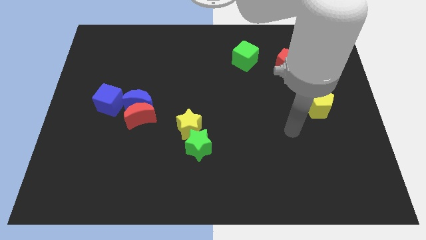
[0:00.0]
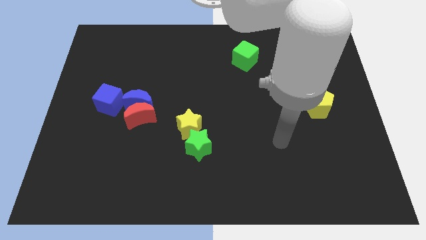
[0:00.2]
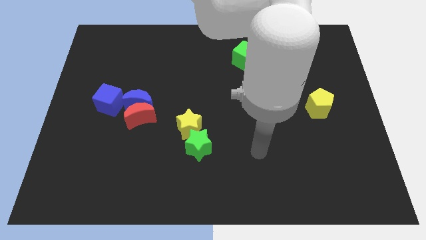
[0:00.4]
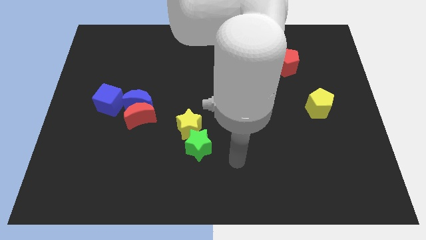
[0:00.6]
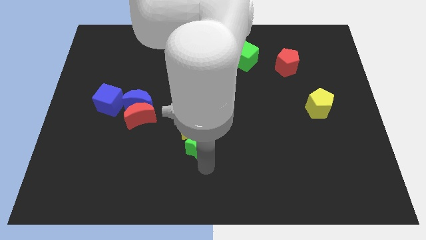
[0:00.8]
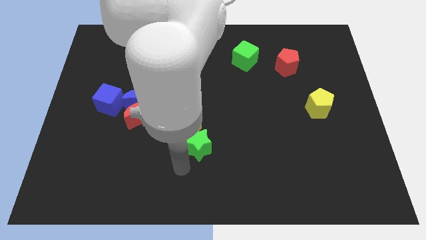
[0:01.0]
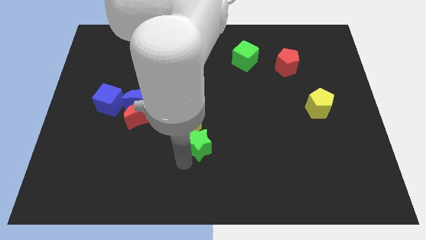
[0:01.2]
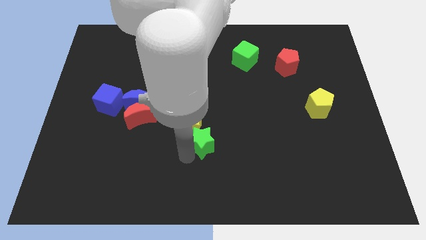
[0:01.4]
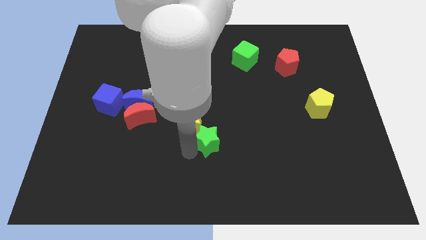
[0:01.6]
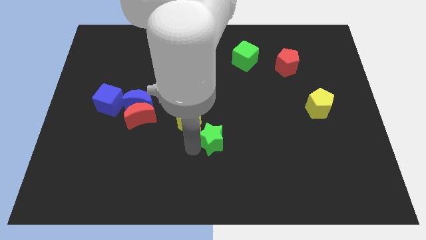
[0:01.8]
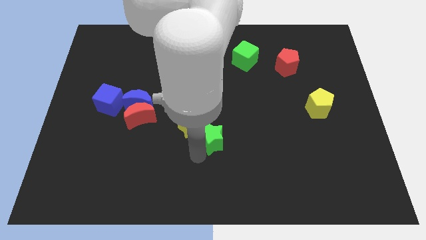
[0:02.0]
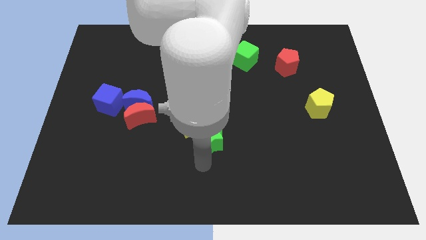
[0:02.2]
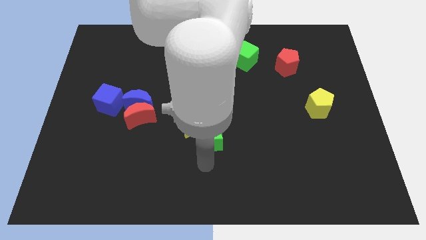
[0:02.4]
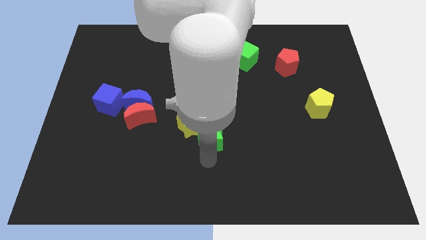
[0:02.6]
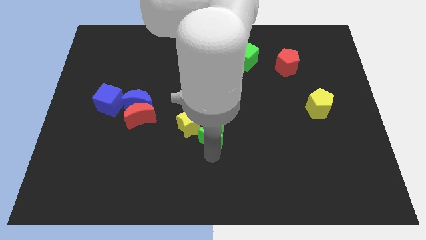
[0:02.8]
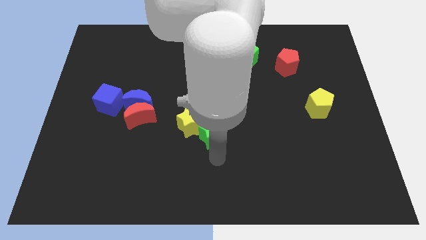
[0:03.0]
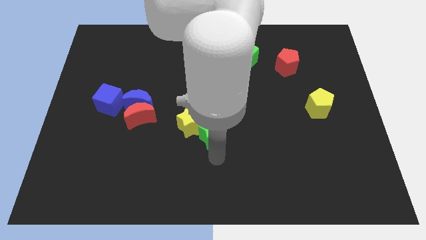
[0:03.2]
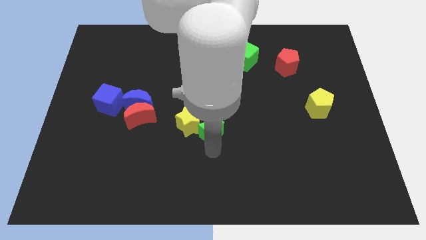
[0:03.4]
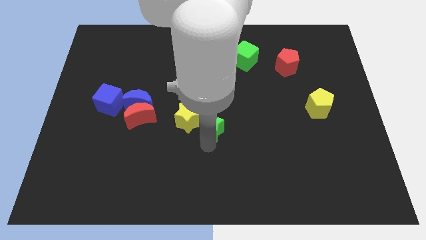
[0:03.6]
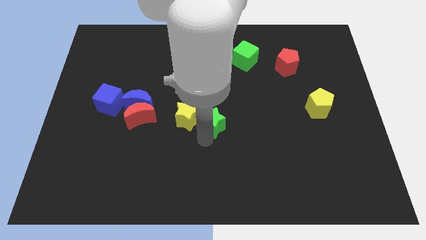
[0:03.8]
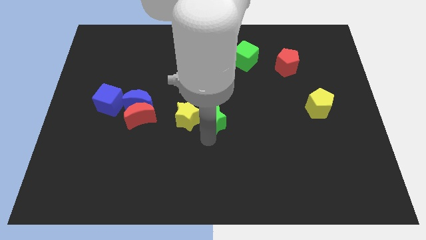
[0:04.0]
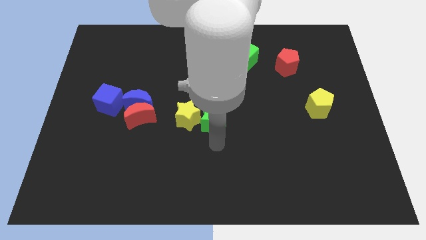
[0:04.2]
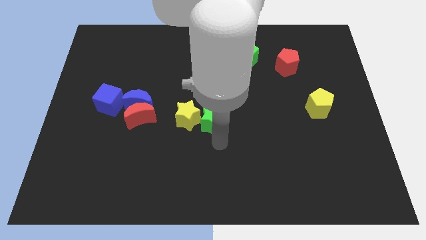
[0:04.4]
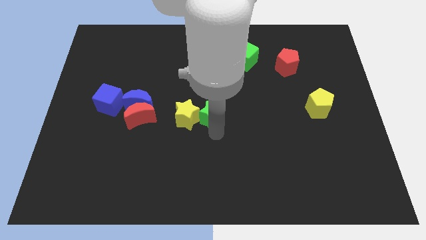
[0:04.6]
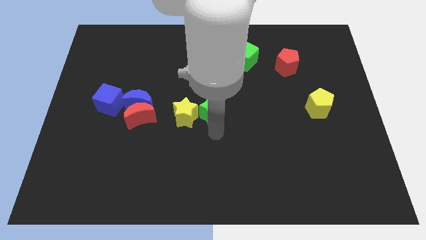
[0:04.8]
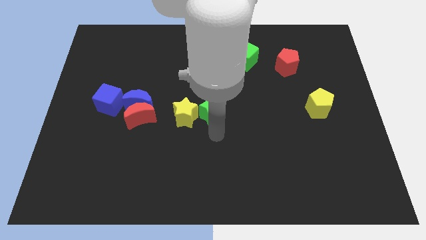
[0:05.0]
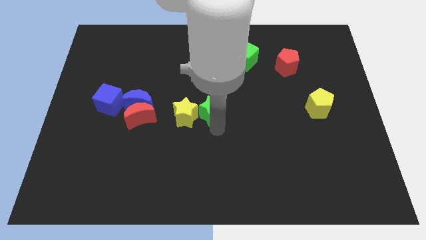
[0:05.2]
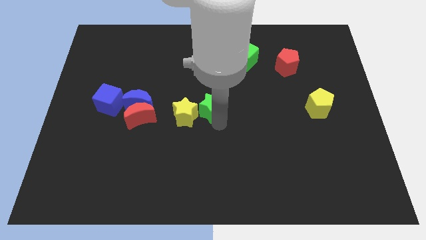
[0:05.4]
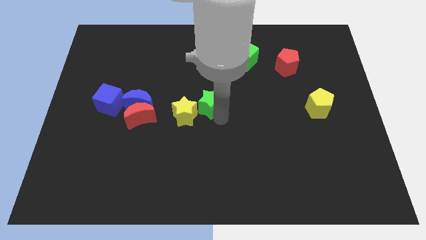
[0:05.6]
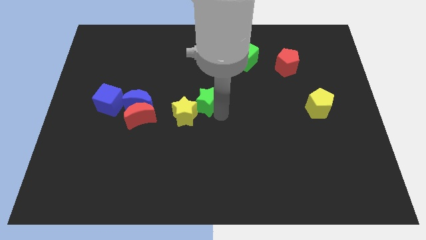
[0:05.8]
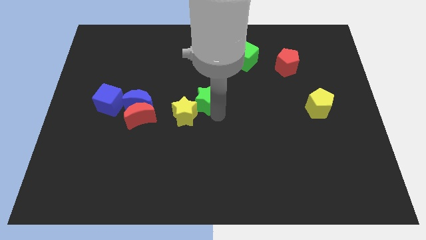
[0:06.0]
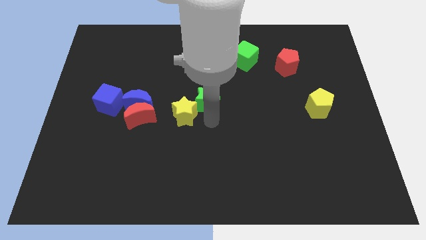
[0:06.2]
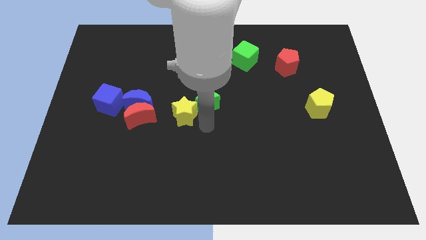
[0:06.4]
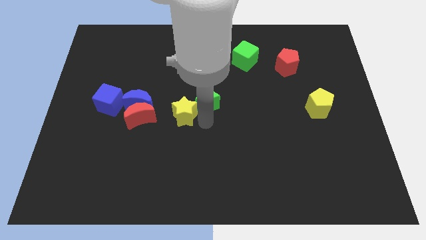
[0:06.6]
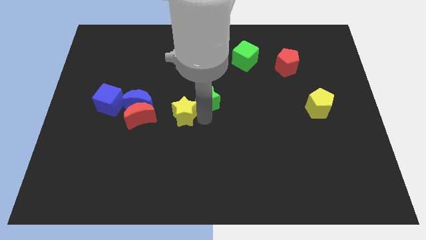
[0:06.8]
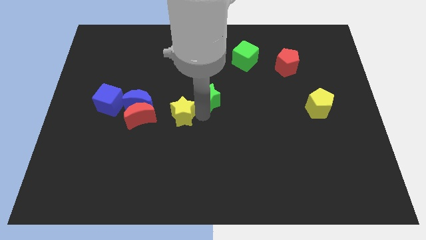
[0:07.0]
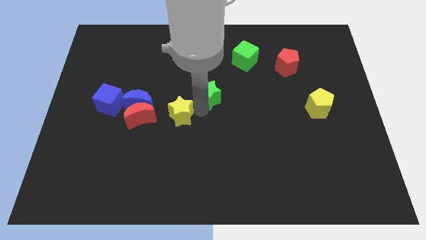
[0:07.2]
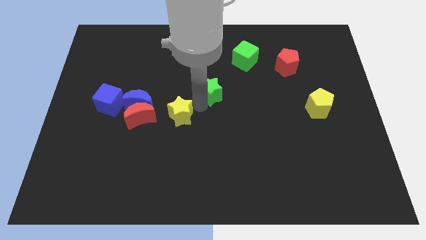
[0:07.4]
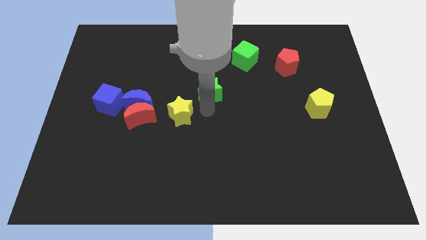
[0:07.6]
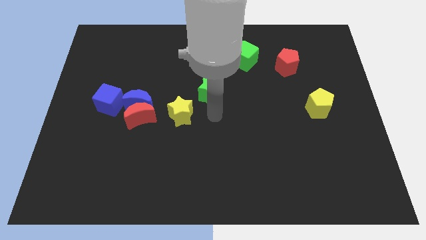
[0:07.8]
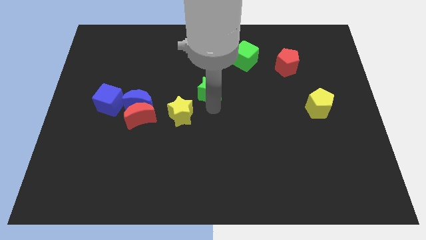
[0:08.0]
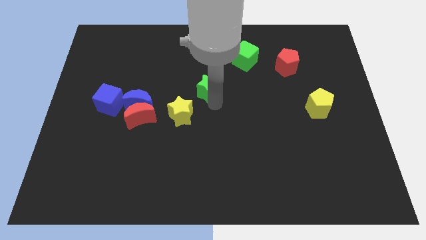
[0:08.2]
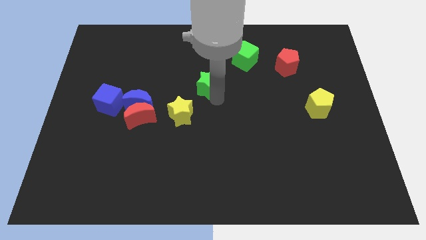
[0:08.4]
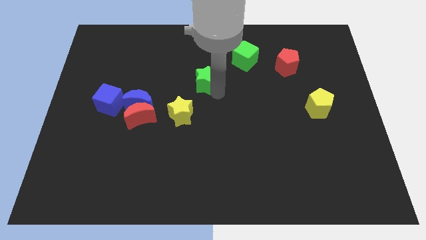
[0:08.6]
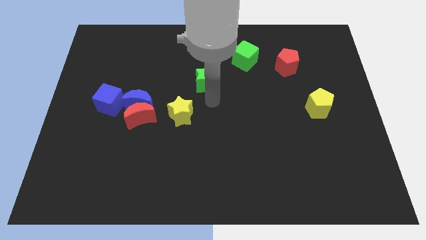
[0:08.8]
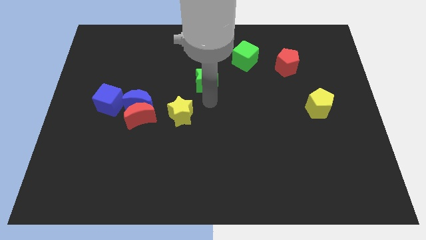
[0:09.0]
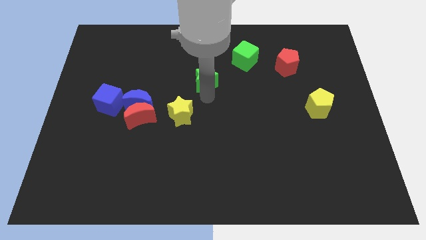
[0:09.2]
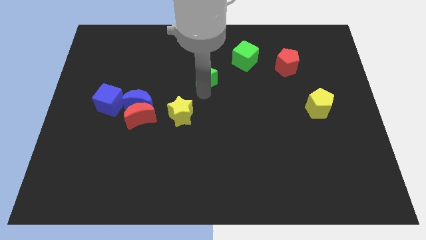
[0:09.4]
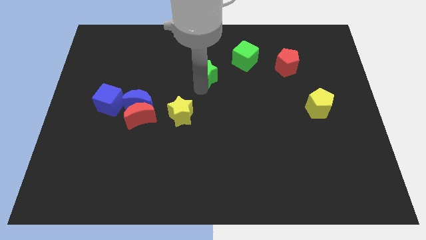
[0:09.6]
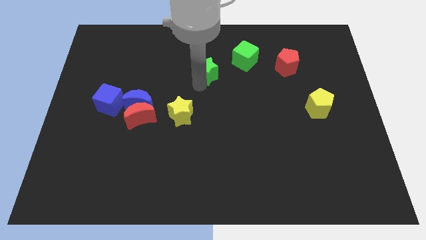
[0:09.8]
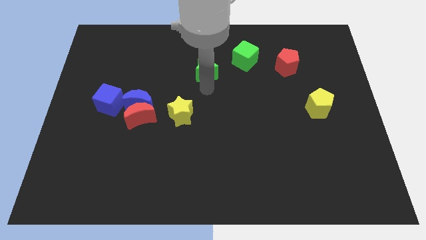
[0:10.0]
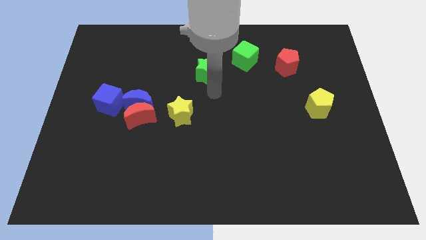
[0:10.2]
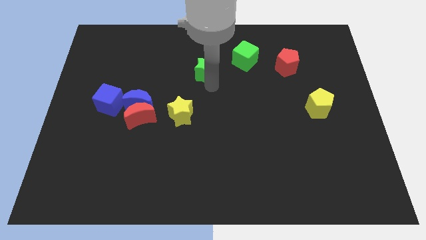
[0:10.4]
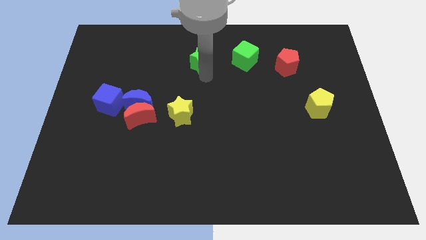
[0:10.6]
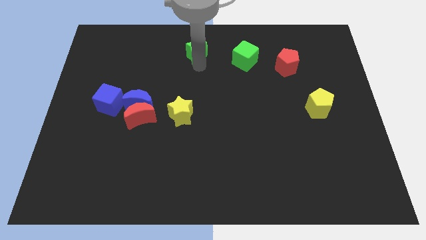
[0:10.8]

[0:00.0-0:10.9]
slide the green star to the top

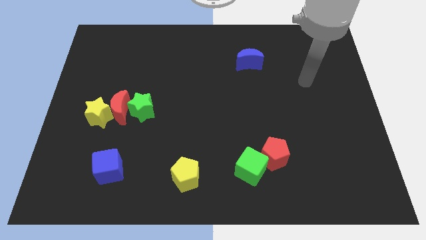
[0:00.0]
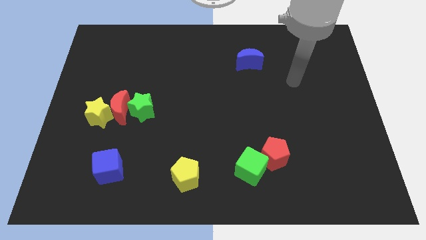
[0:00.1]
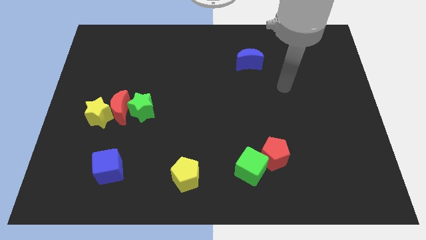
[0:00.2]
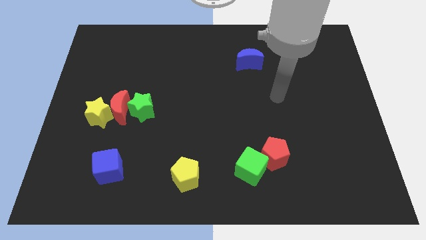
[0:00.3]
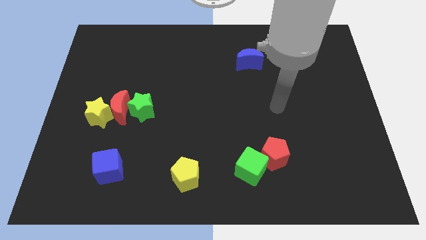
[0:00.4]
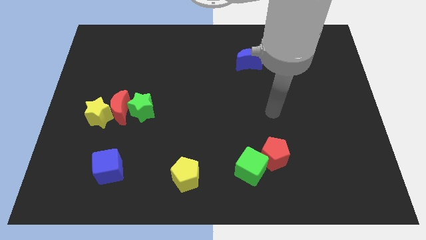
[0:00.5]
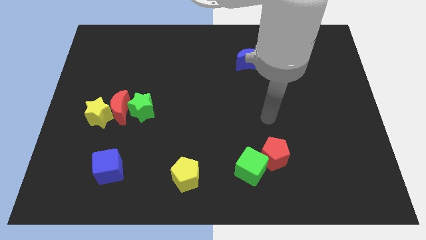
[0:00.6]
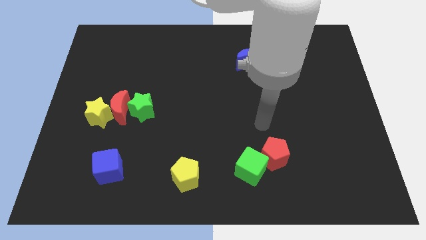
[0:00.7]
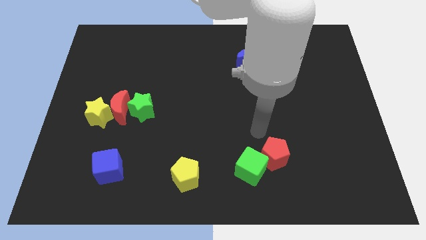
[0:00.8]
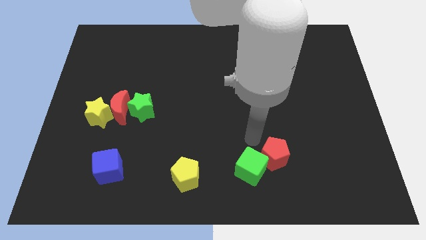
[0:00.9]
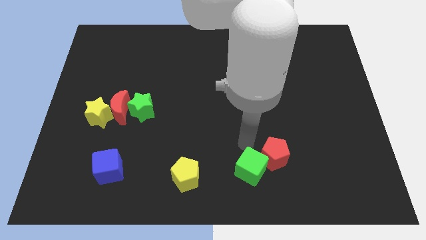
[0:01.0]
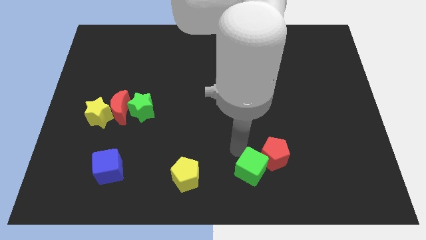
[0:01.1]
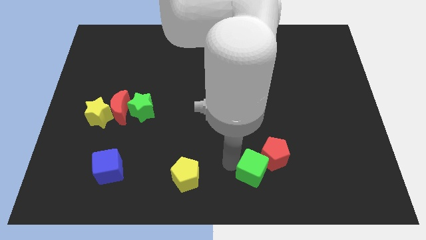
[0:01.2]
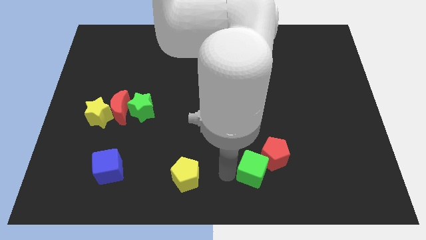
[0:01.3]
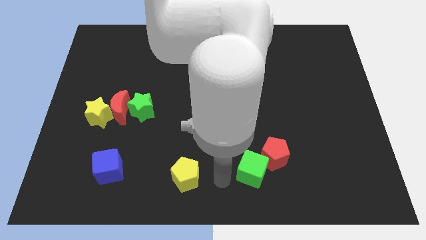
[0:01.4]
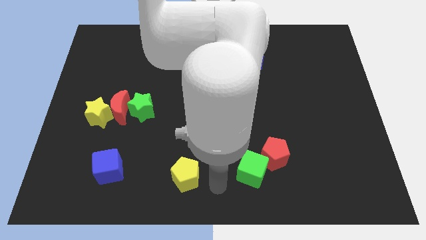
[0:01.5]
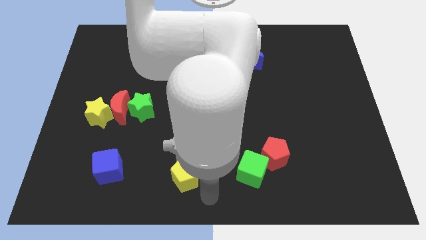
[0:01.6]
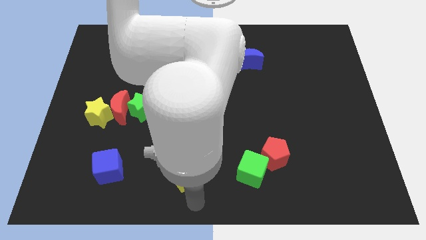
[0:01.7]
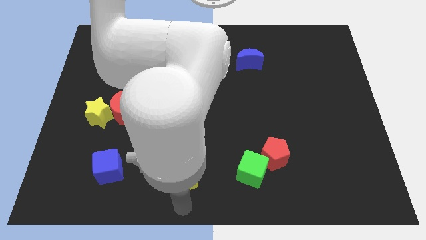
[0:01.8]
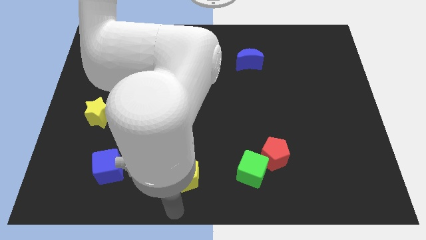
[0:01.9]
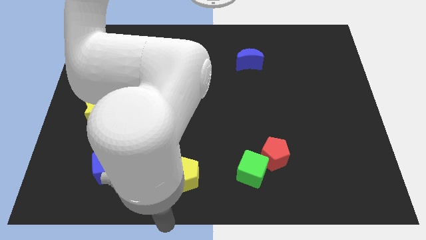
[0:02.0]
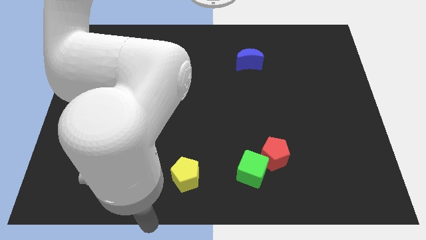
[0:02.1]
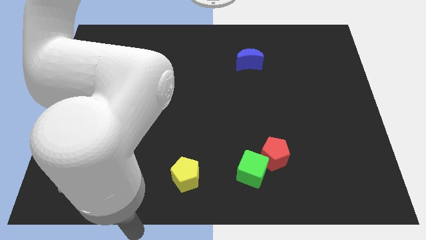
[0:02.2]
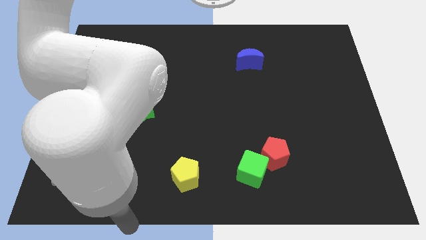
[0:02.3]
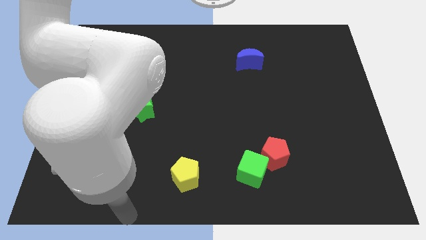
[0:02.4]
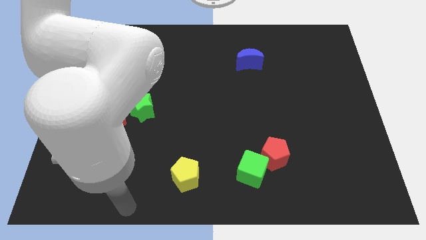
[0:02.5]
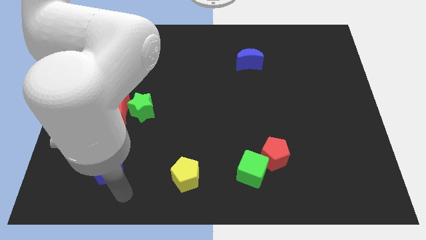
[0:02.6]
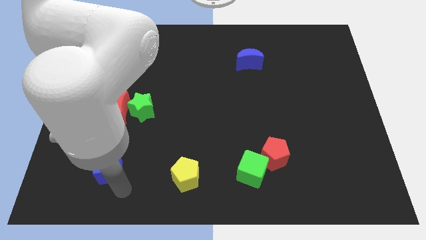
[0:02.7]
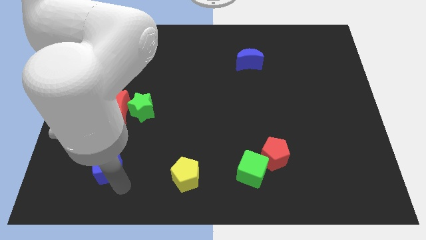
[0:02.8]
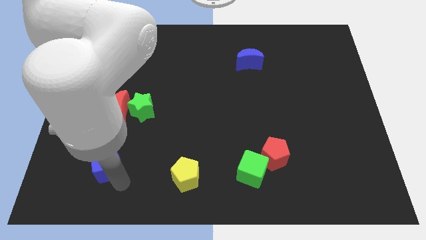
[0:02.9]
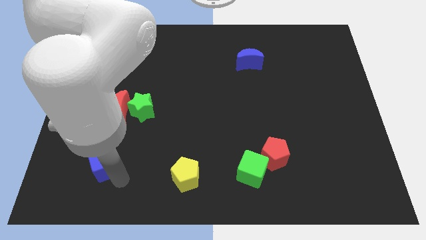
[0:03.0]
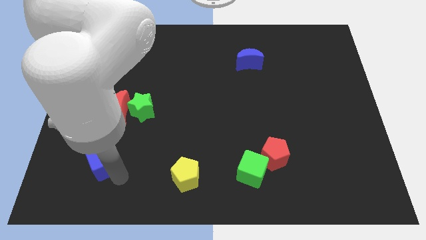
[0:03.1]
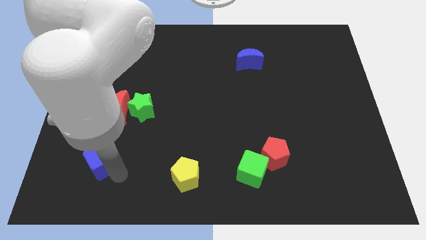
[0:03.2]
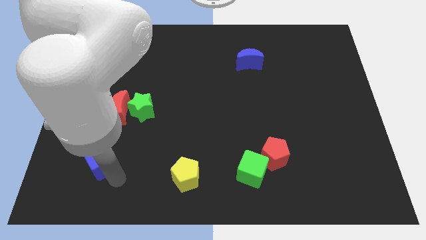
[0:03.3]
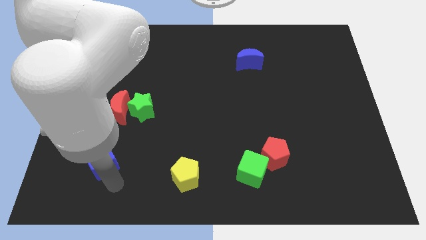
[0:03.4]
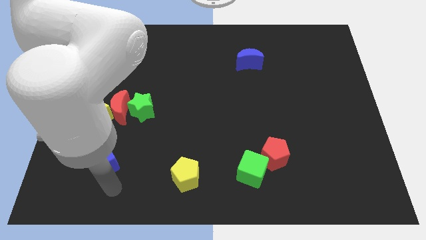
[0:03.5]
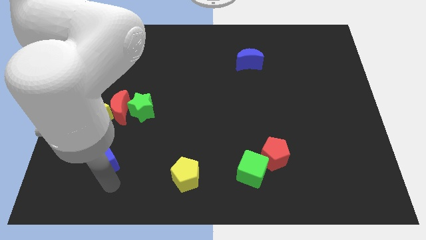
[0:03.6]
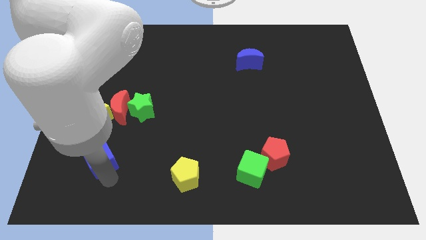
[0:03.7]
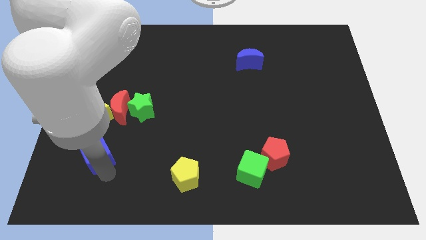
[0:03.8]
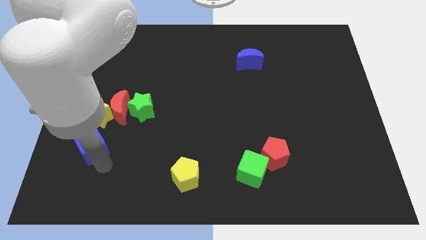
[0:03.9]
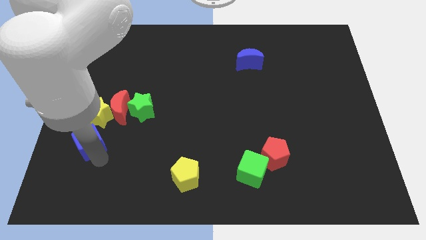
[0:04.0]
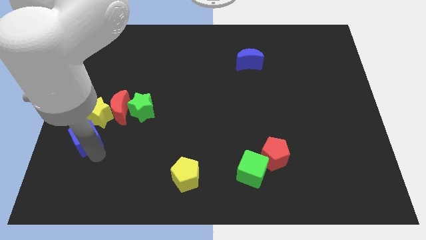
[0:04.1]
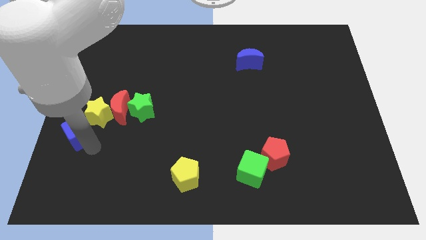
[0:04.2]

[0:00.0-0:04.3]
put the blue cube to the left side of the board
